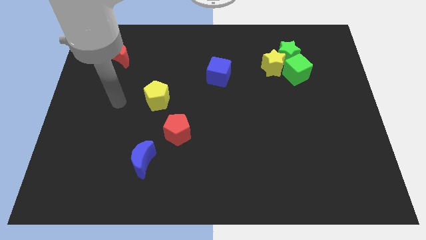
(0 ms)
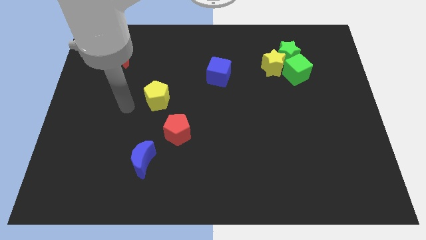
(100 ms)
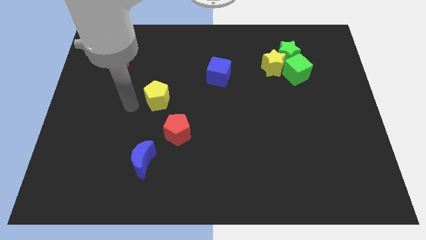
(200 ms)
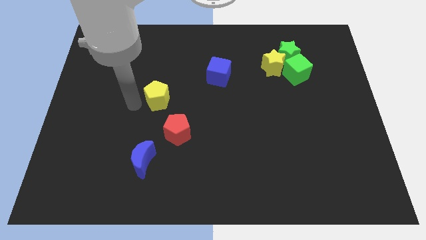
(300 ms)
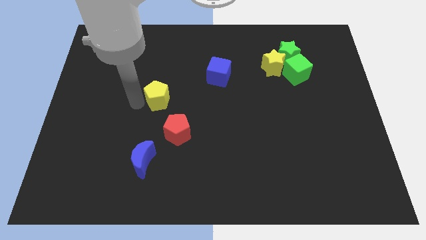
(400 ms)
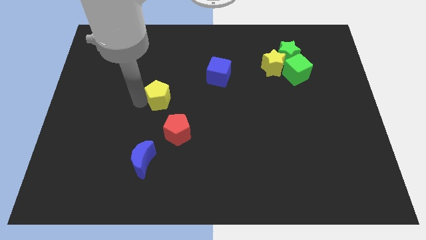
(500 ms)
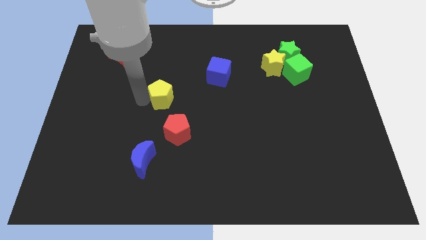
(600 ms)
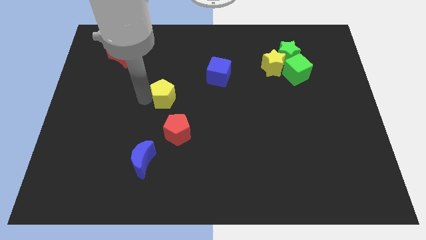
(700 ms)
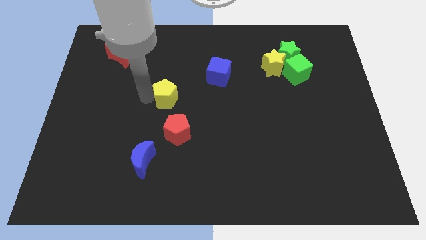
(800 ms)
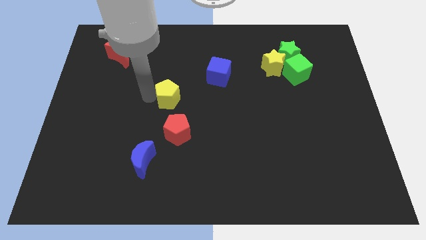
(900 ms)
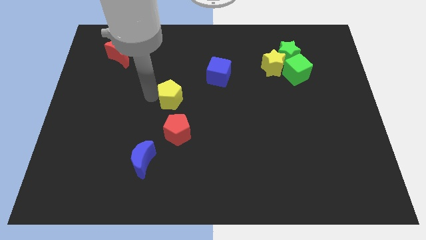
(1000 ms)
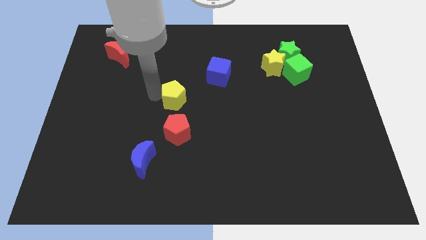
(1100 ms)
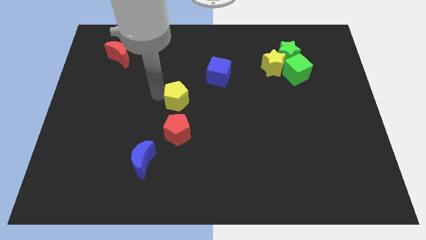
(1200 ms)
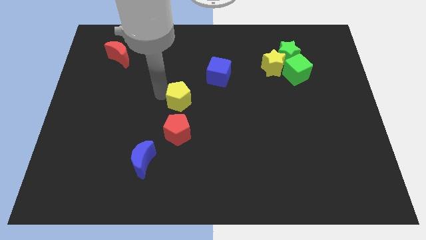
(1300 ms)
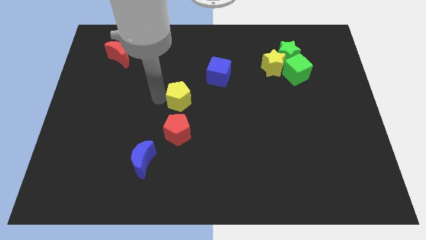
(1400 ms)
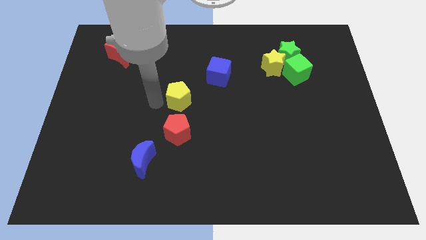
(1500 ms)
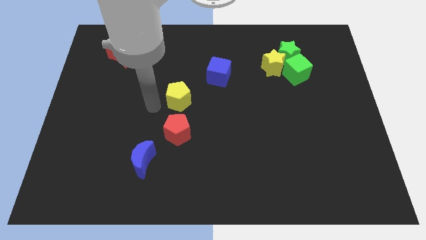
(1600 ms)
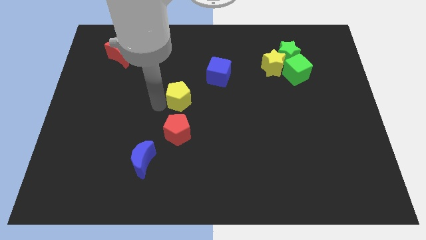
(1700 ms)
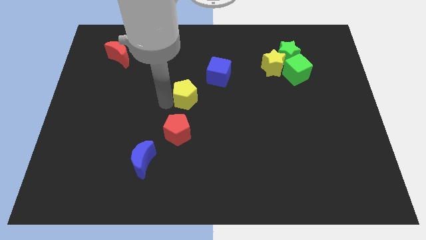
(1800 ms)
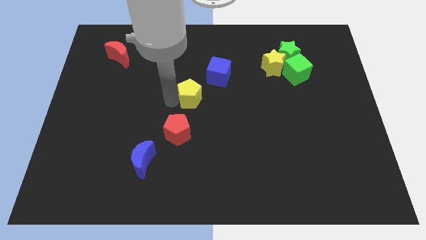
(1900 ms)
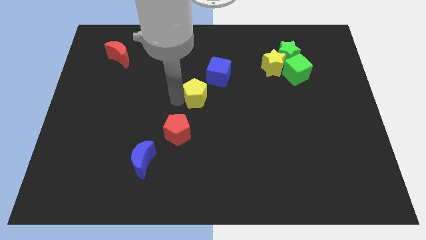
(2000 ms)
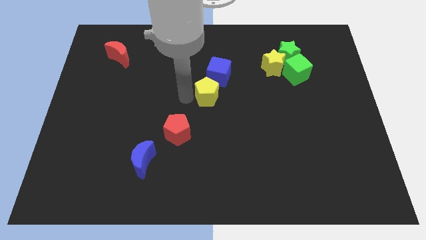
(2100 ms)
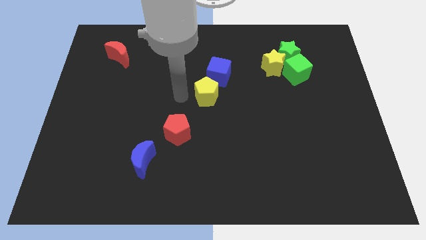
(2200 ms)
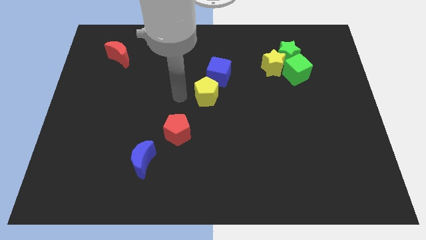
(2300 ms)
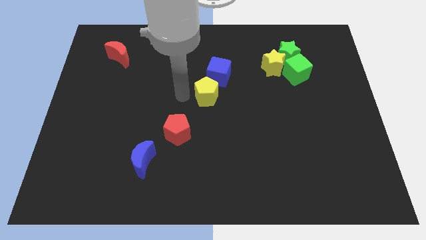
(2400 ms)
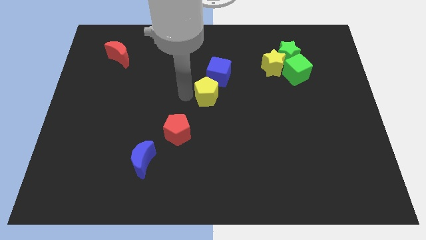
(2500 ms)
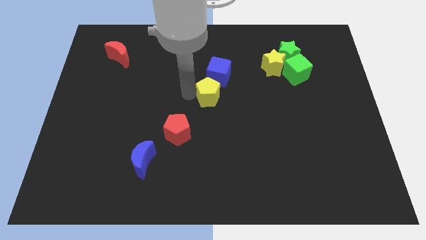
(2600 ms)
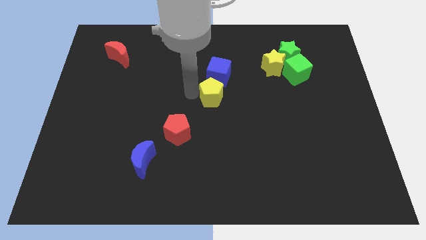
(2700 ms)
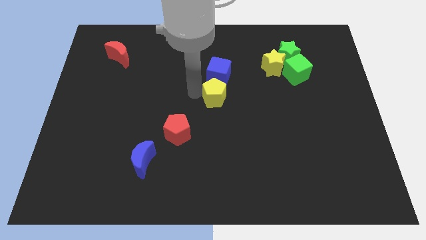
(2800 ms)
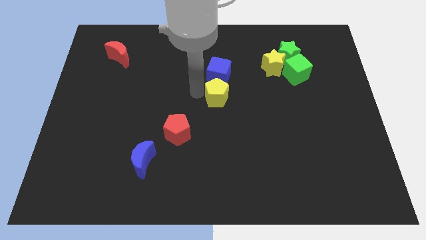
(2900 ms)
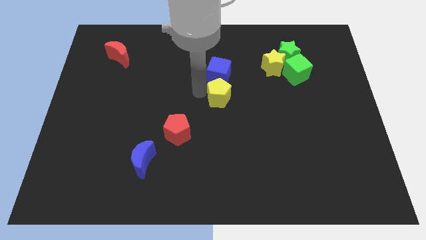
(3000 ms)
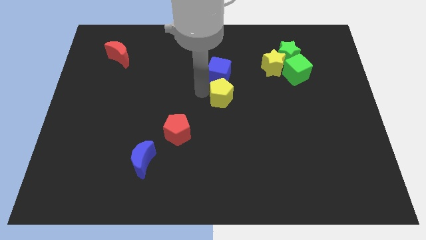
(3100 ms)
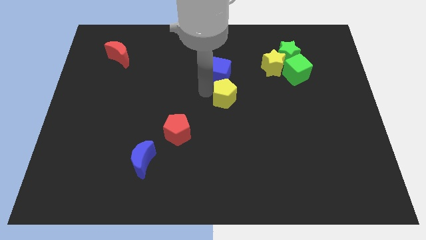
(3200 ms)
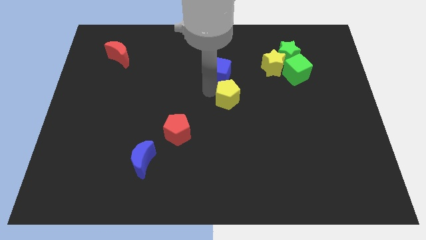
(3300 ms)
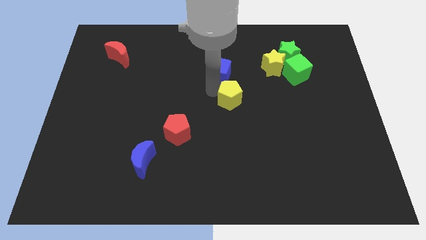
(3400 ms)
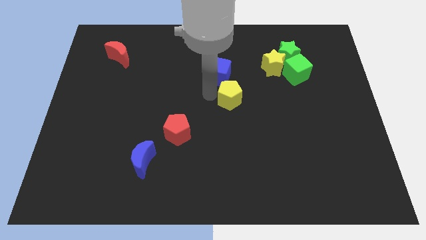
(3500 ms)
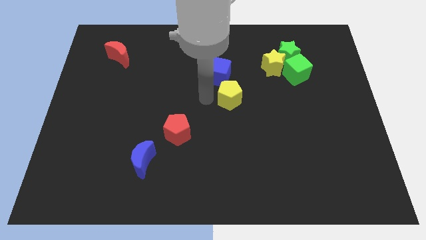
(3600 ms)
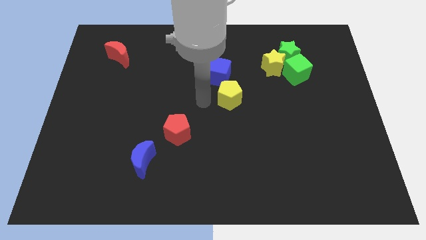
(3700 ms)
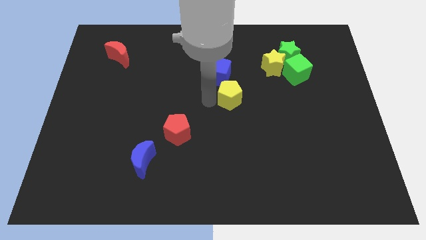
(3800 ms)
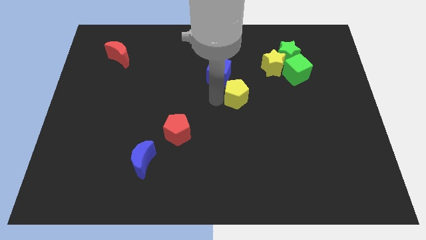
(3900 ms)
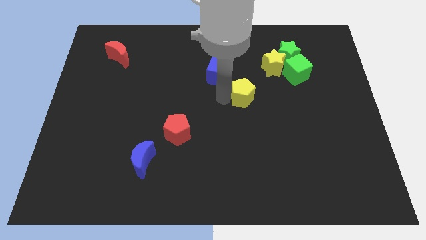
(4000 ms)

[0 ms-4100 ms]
move the yellow pentagon right

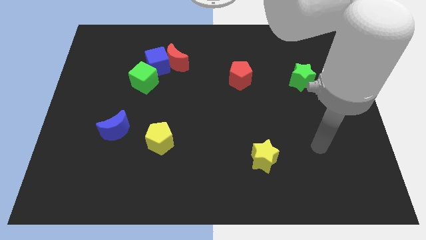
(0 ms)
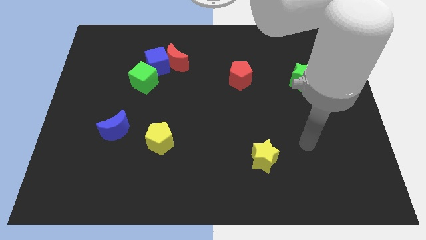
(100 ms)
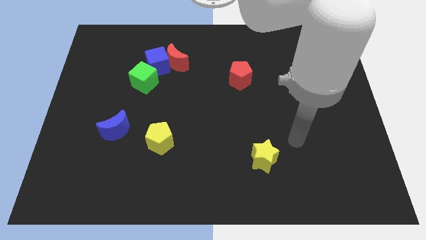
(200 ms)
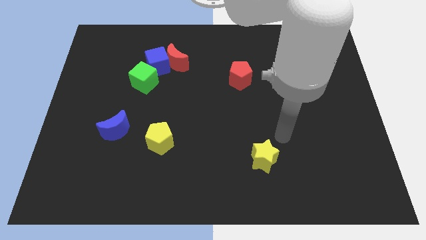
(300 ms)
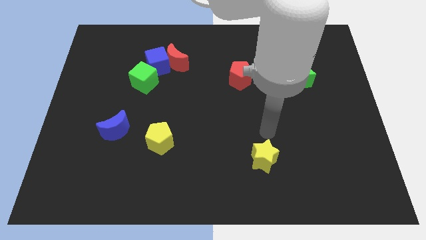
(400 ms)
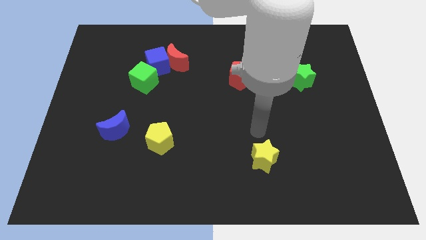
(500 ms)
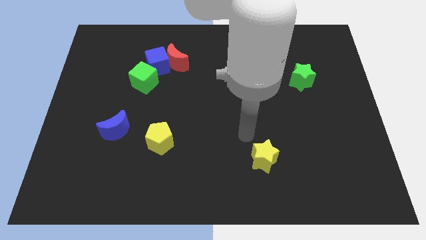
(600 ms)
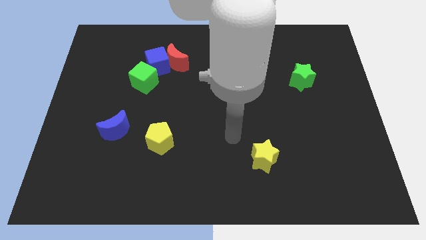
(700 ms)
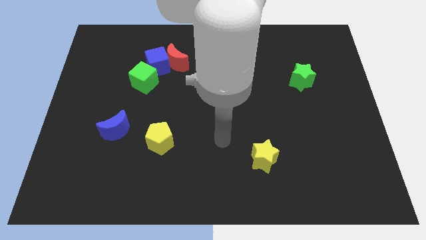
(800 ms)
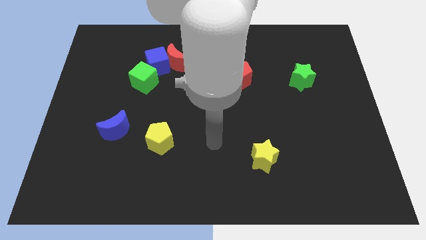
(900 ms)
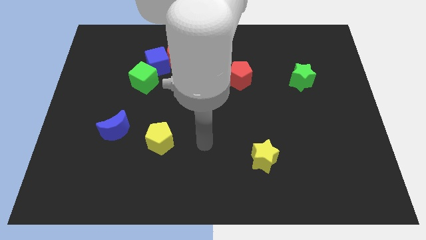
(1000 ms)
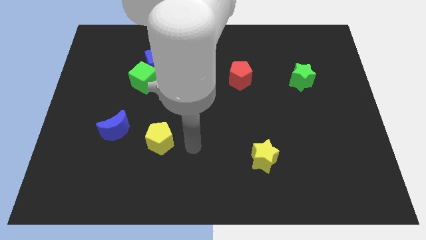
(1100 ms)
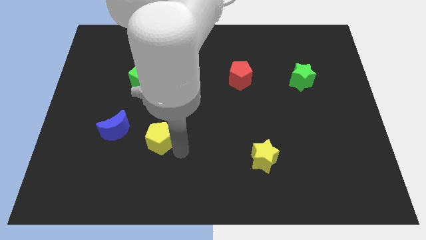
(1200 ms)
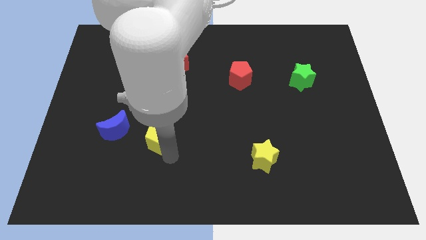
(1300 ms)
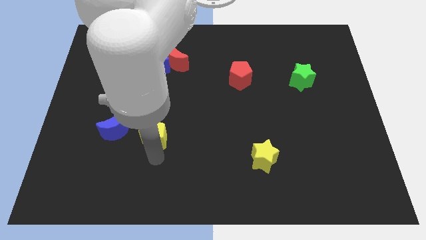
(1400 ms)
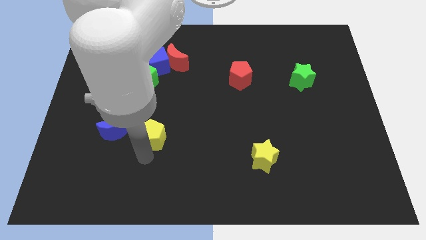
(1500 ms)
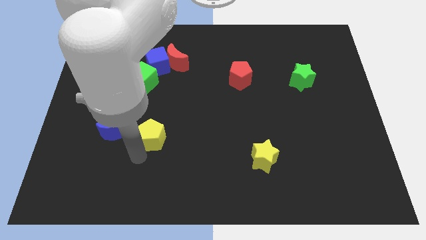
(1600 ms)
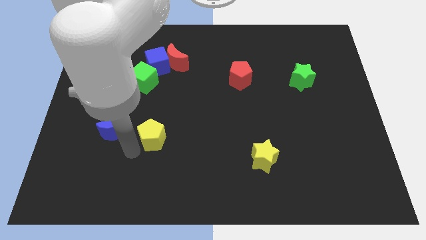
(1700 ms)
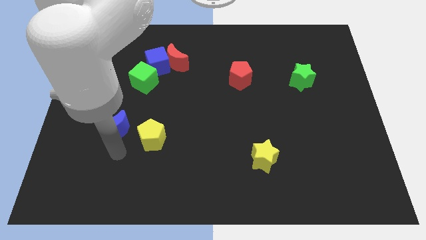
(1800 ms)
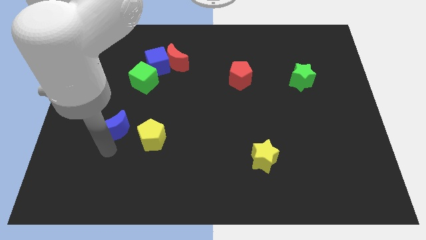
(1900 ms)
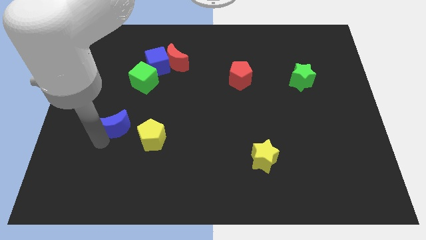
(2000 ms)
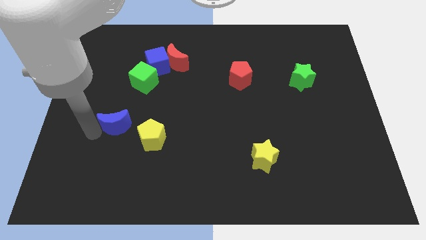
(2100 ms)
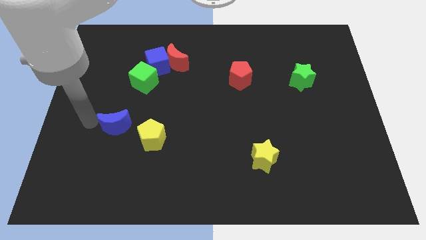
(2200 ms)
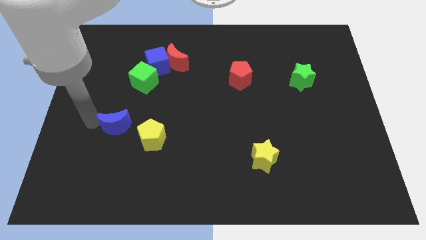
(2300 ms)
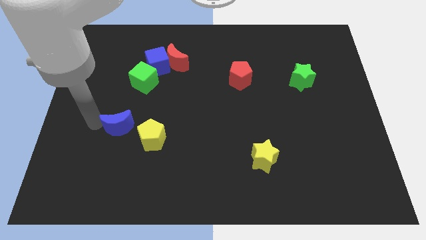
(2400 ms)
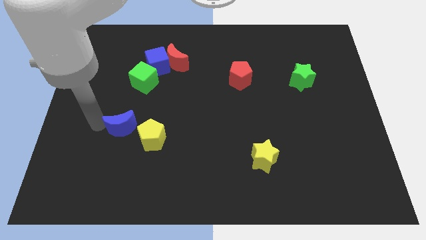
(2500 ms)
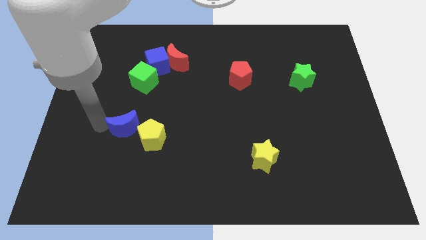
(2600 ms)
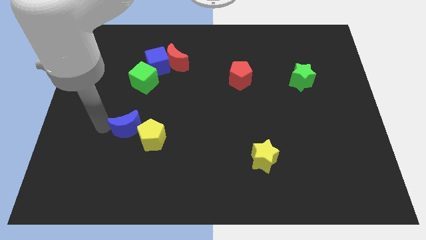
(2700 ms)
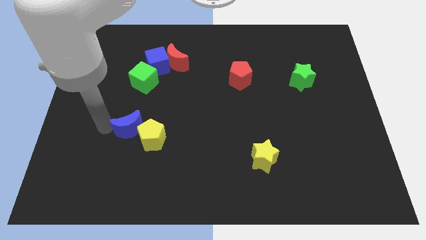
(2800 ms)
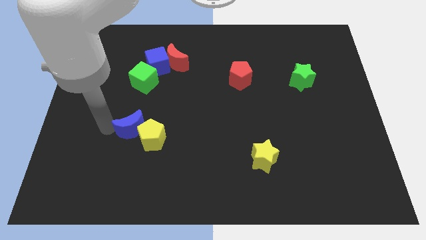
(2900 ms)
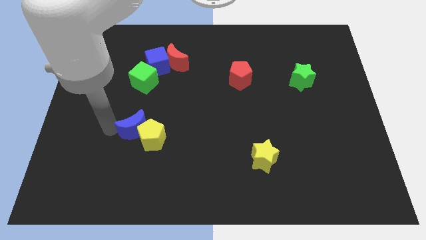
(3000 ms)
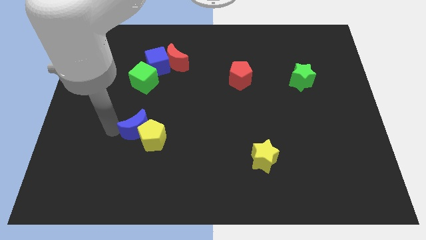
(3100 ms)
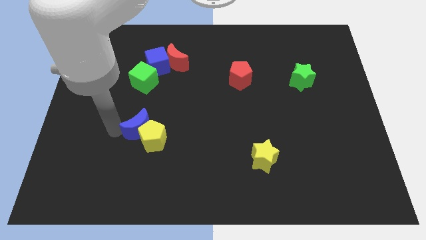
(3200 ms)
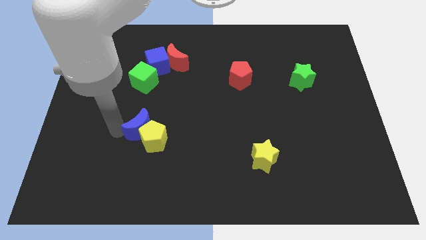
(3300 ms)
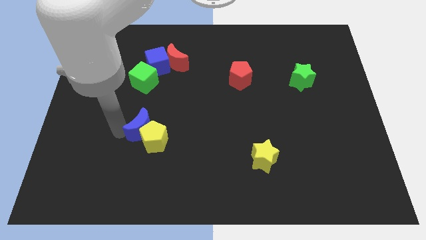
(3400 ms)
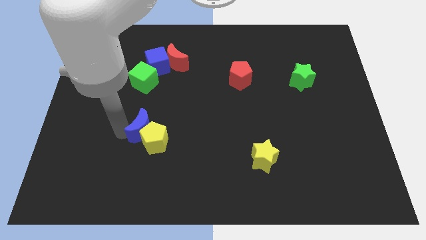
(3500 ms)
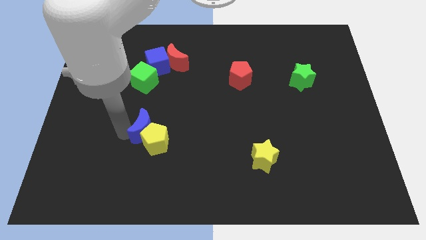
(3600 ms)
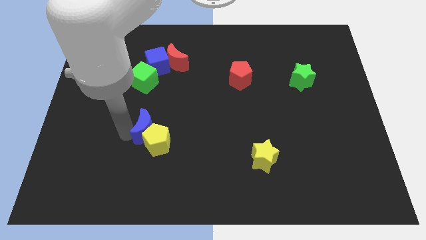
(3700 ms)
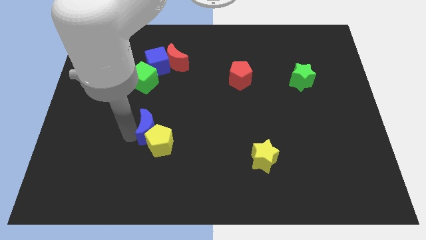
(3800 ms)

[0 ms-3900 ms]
push the blue moon slightly to the right
